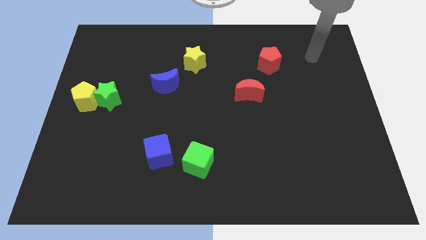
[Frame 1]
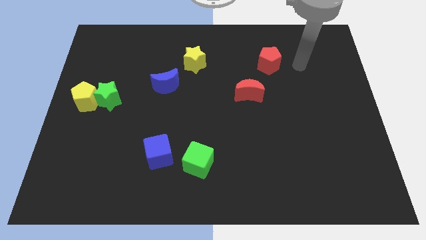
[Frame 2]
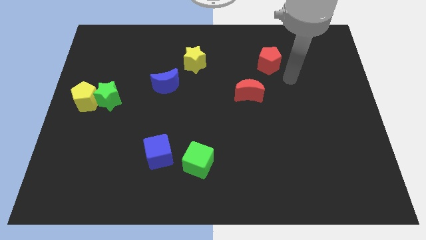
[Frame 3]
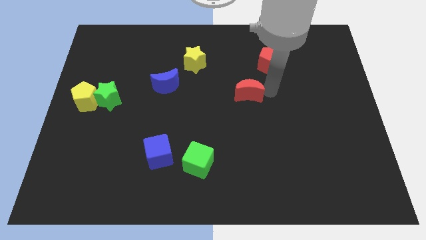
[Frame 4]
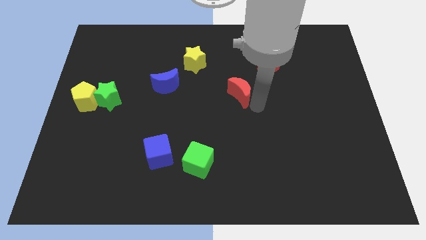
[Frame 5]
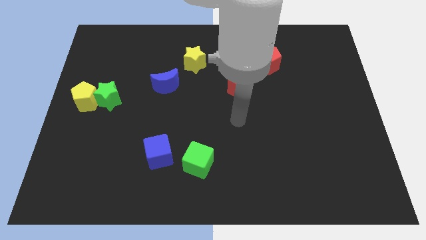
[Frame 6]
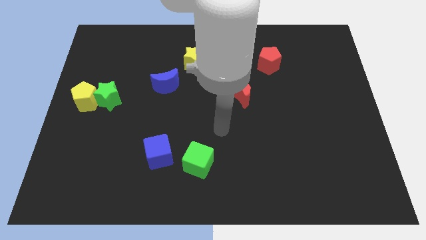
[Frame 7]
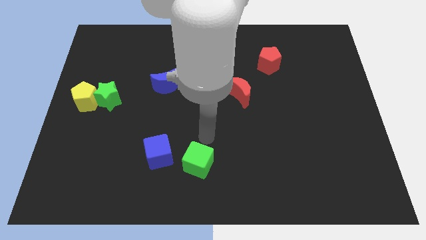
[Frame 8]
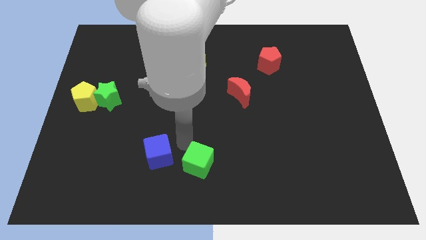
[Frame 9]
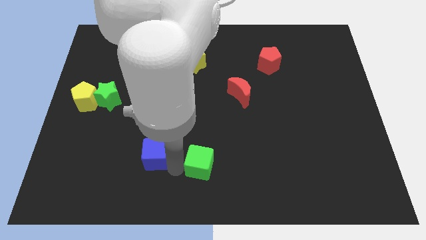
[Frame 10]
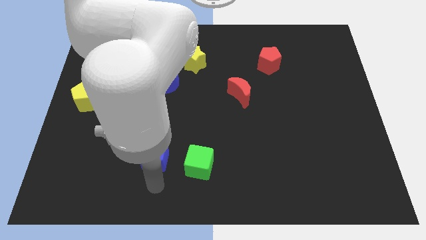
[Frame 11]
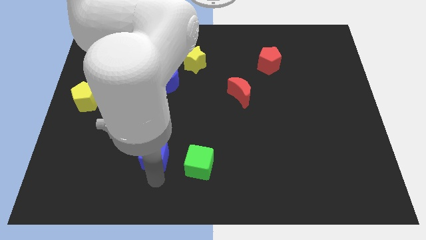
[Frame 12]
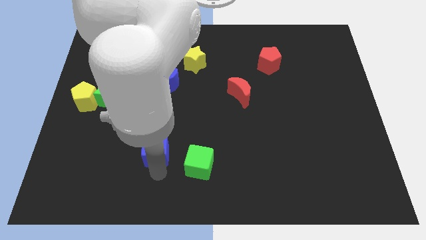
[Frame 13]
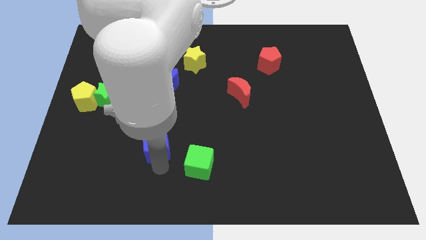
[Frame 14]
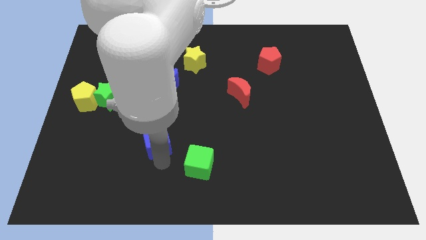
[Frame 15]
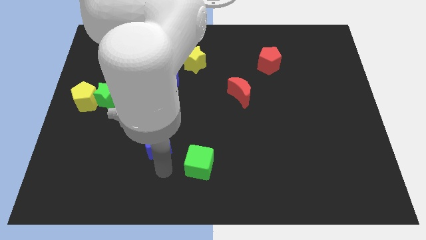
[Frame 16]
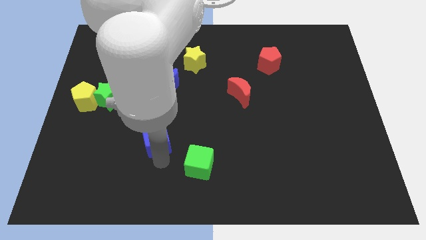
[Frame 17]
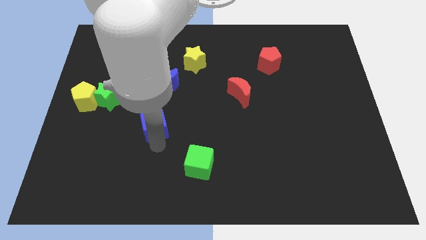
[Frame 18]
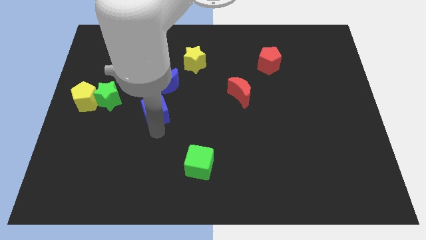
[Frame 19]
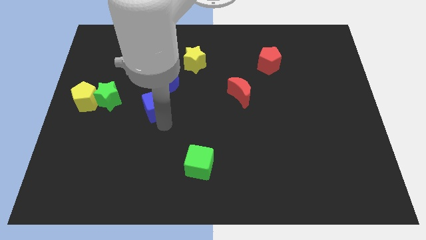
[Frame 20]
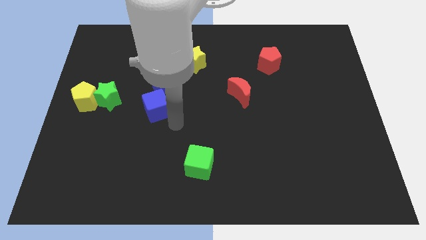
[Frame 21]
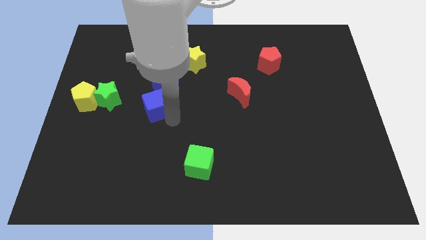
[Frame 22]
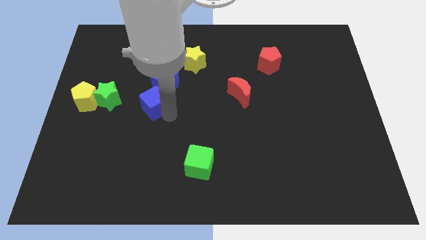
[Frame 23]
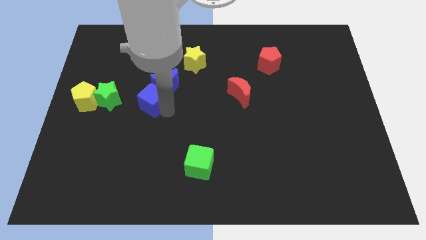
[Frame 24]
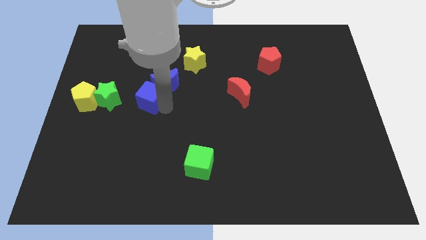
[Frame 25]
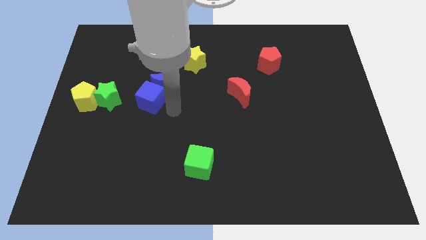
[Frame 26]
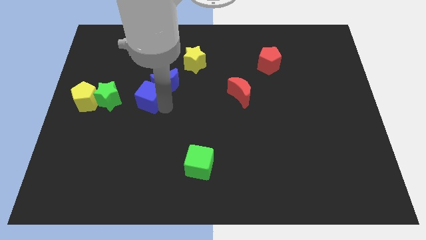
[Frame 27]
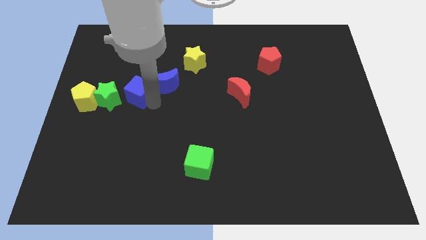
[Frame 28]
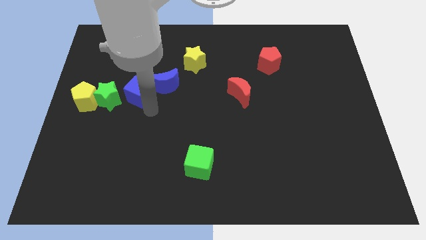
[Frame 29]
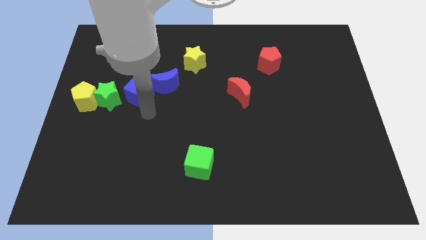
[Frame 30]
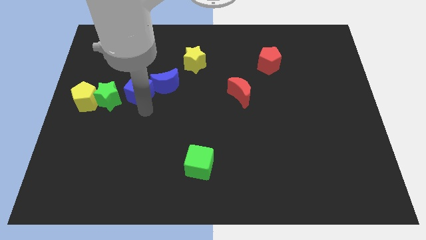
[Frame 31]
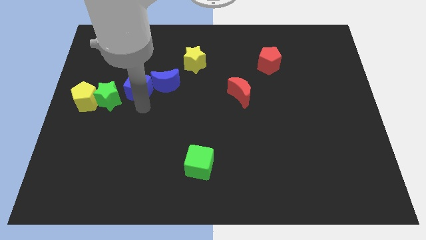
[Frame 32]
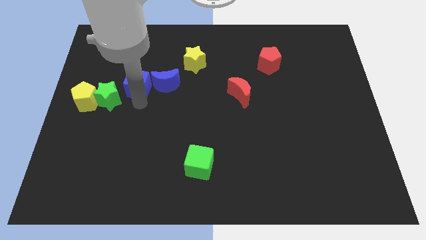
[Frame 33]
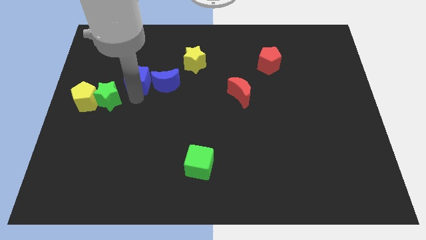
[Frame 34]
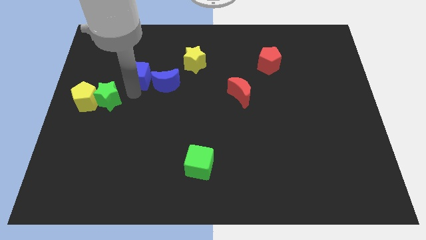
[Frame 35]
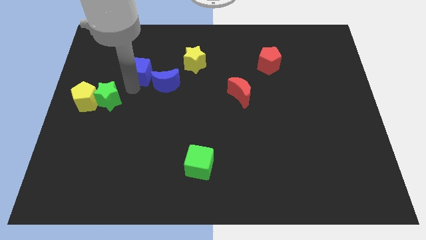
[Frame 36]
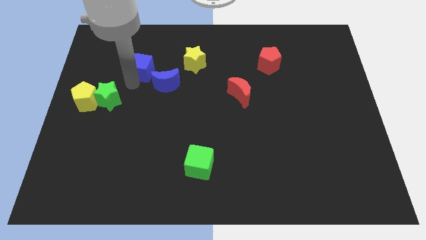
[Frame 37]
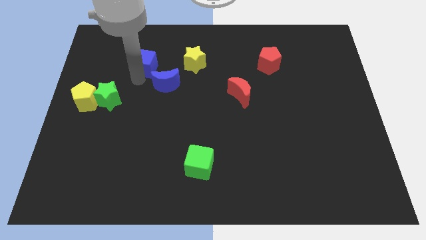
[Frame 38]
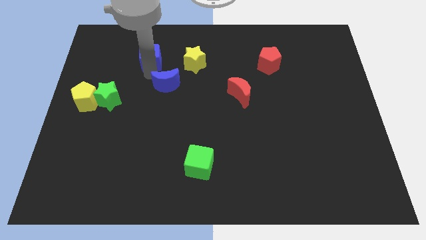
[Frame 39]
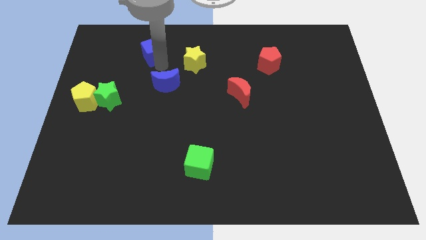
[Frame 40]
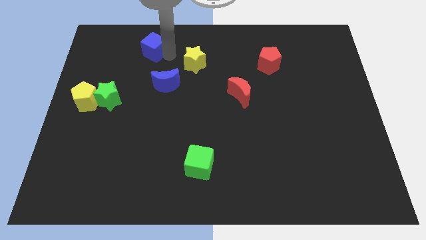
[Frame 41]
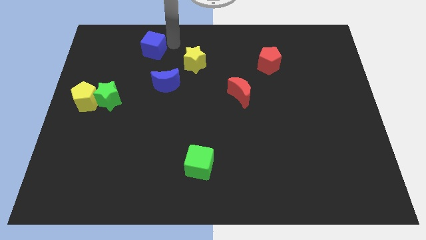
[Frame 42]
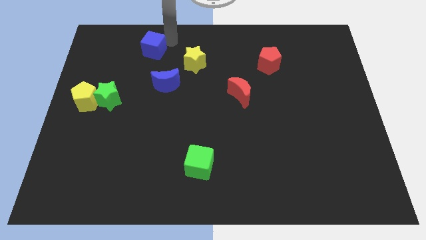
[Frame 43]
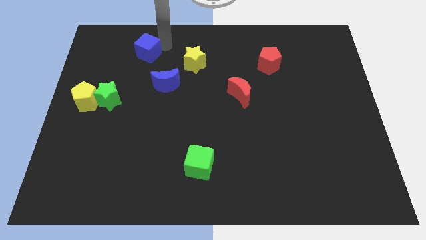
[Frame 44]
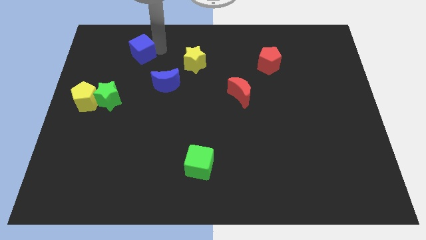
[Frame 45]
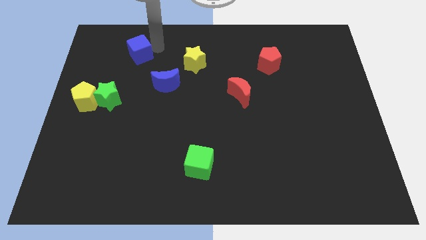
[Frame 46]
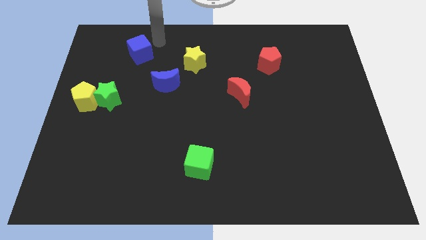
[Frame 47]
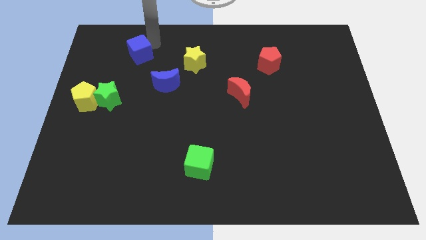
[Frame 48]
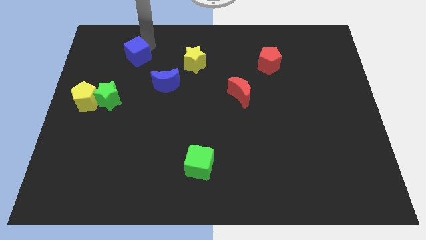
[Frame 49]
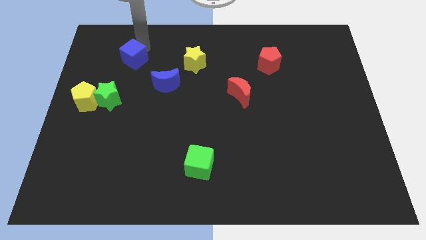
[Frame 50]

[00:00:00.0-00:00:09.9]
slide the blue cube to the top side of the green star

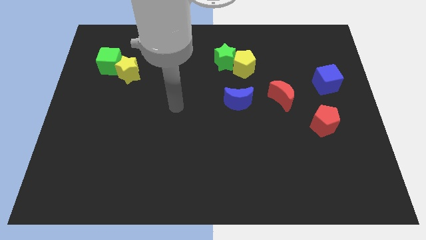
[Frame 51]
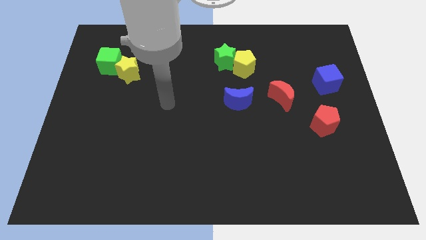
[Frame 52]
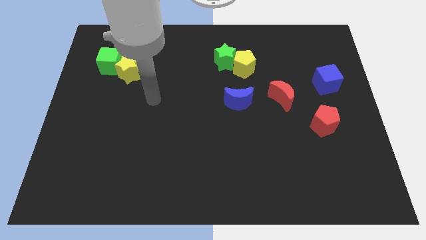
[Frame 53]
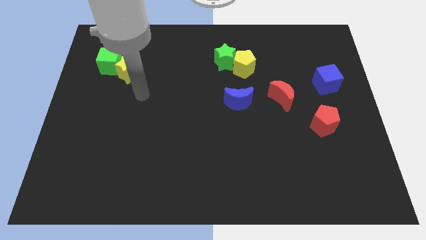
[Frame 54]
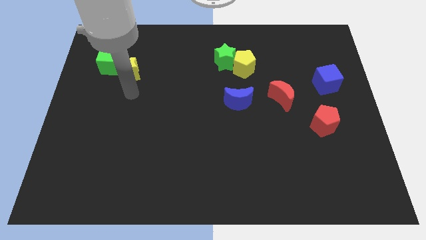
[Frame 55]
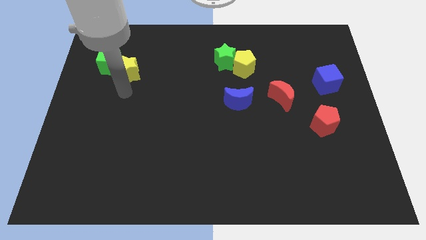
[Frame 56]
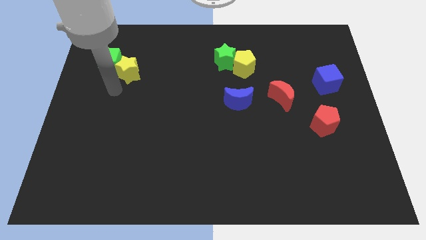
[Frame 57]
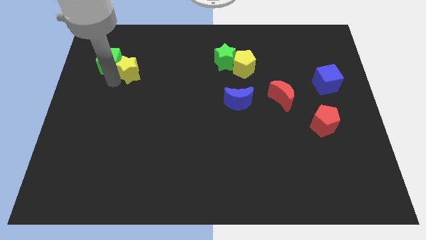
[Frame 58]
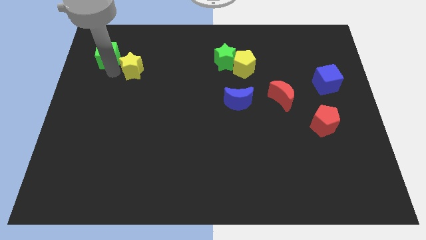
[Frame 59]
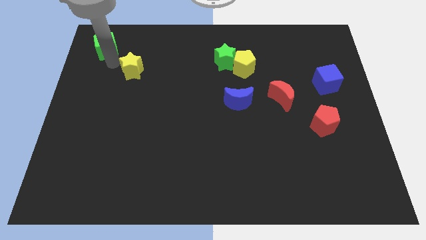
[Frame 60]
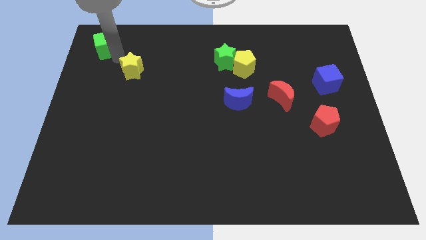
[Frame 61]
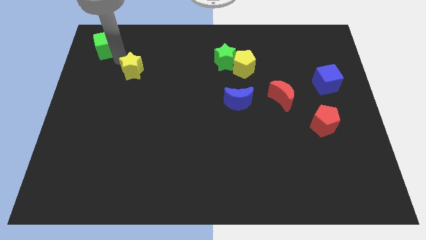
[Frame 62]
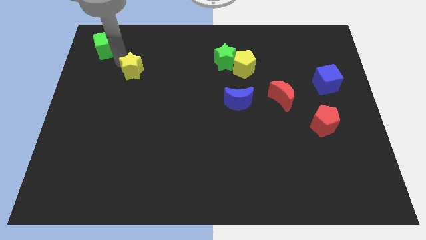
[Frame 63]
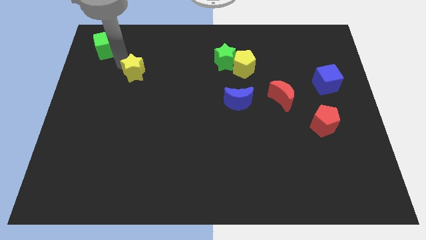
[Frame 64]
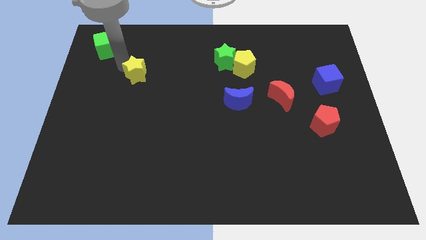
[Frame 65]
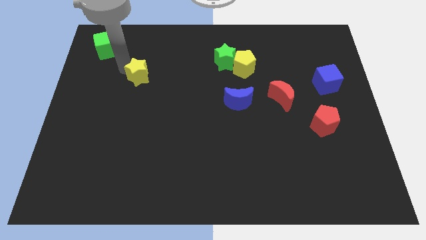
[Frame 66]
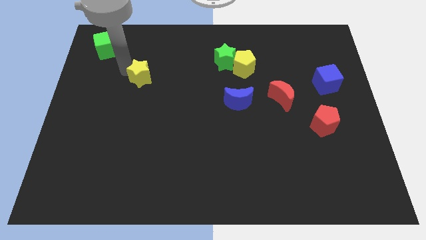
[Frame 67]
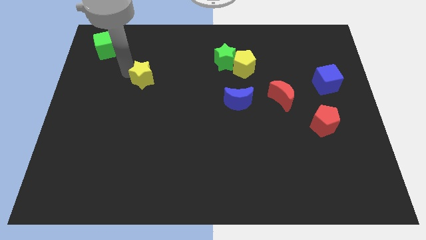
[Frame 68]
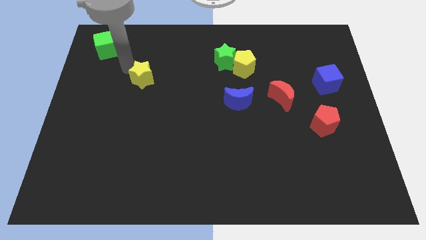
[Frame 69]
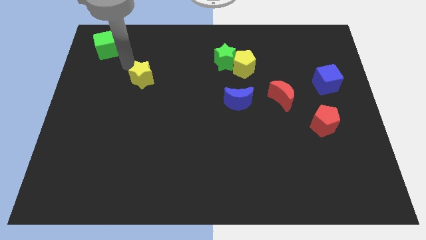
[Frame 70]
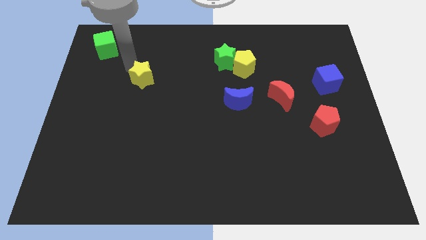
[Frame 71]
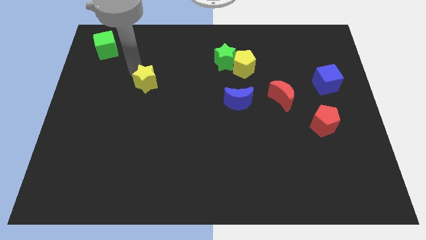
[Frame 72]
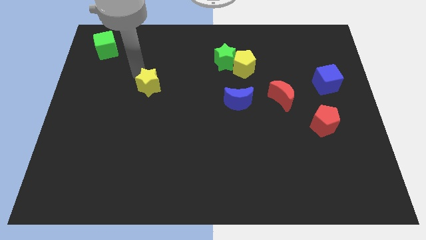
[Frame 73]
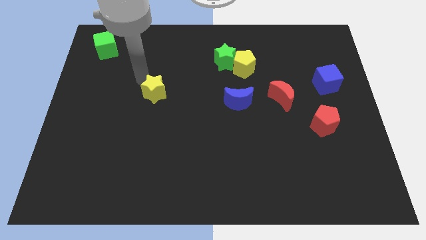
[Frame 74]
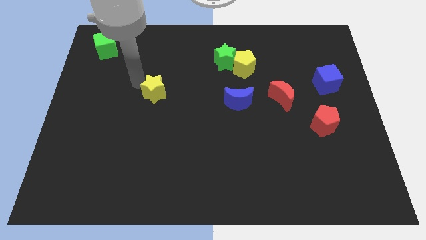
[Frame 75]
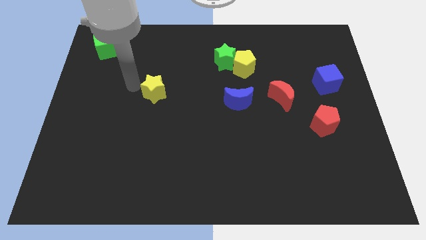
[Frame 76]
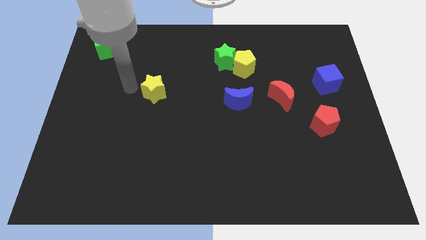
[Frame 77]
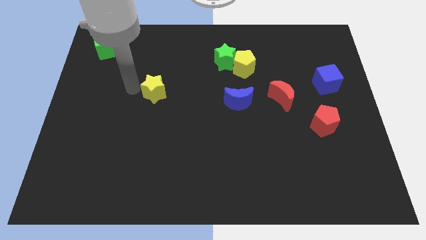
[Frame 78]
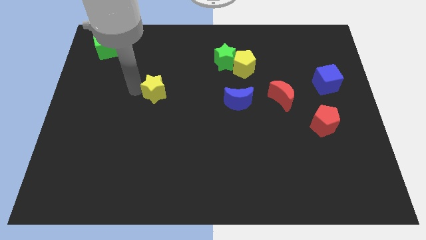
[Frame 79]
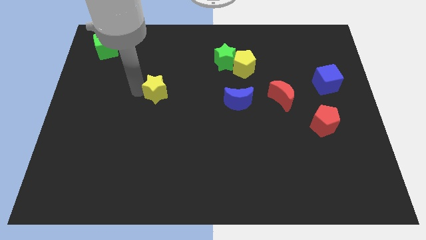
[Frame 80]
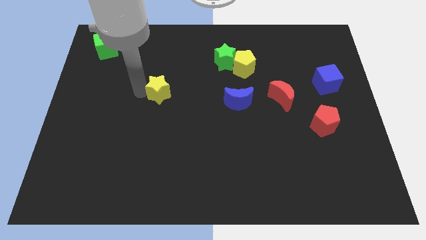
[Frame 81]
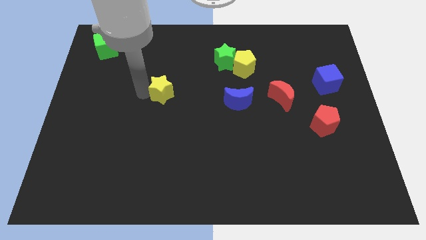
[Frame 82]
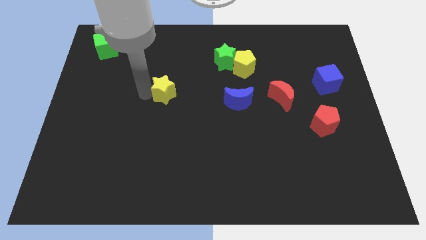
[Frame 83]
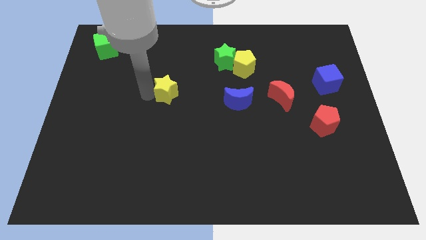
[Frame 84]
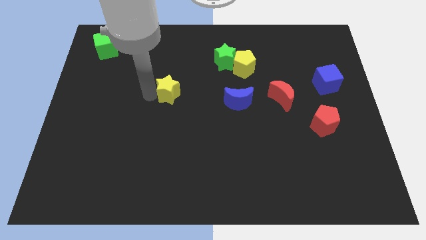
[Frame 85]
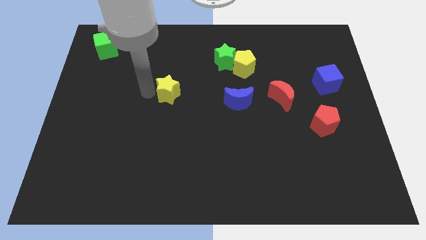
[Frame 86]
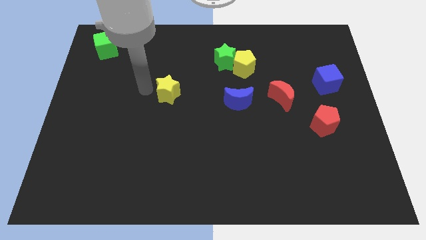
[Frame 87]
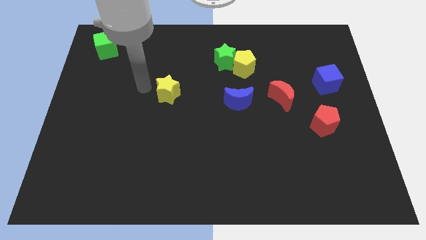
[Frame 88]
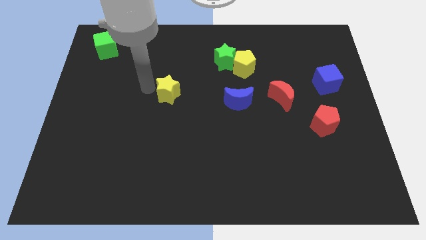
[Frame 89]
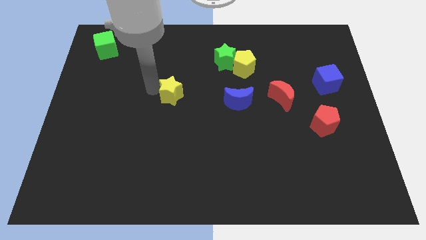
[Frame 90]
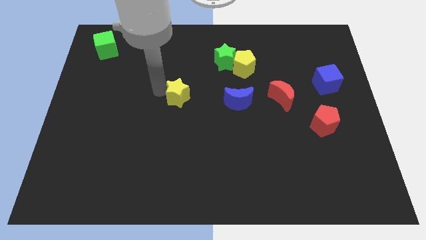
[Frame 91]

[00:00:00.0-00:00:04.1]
put the yellow star left of the blue moon
